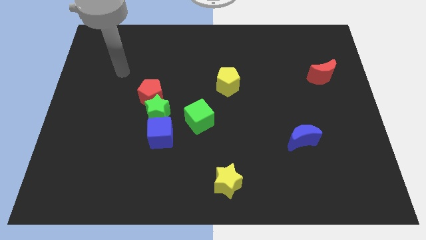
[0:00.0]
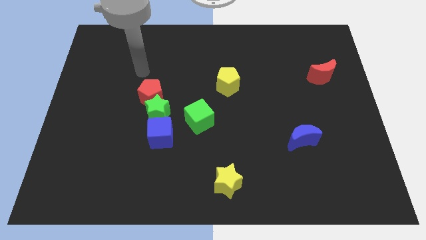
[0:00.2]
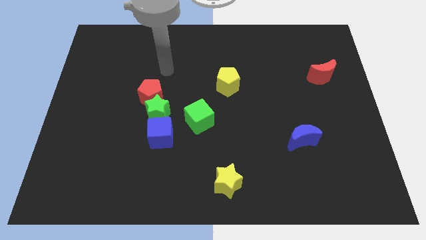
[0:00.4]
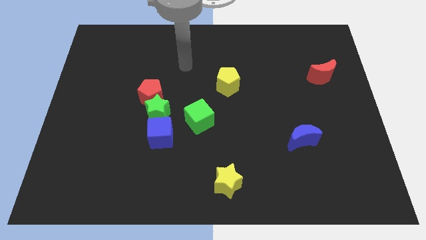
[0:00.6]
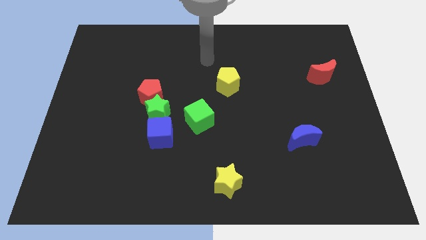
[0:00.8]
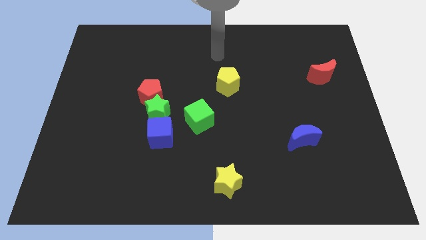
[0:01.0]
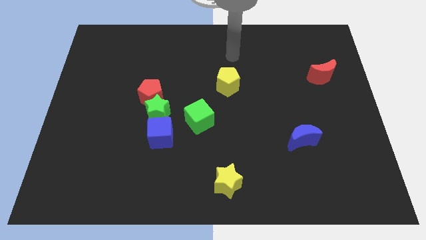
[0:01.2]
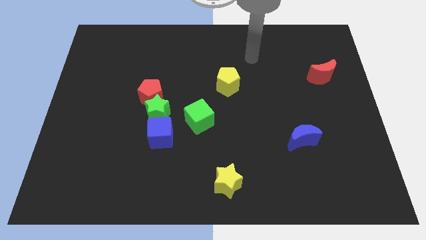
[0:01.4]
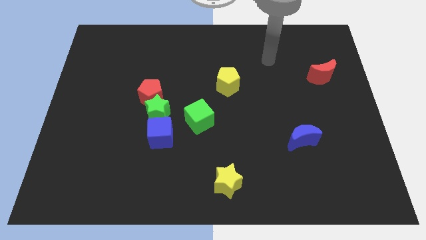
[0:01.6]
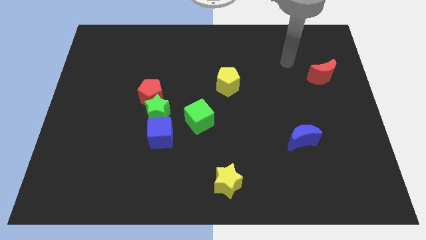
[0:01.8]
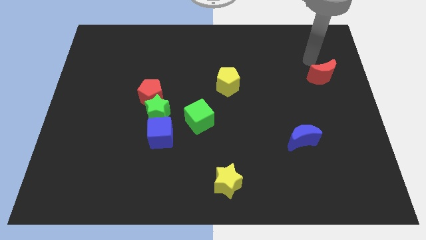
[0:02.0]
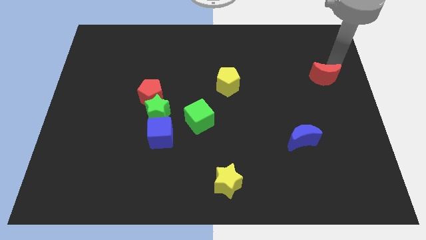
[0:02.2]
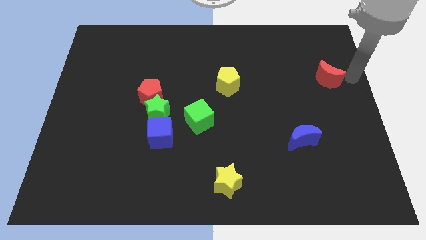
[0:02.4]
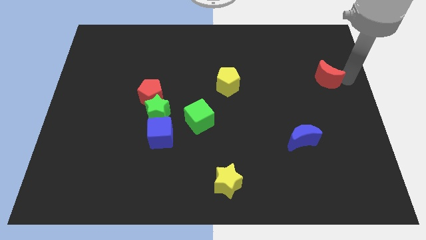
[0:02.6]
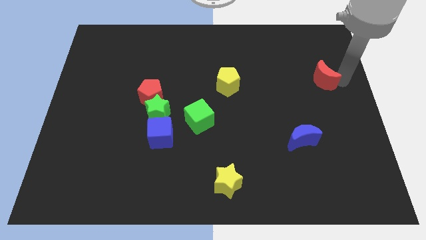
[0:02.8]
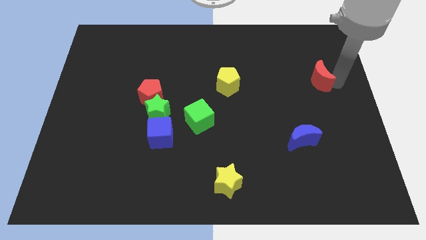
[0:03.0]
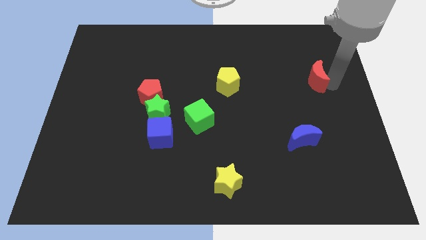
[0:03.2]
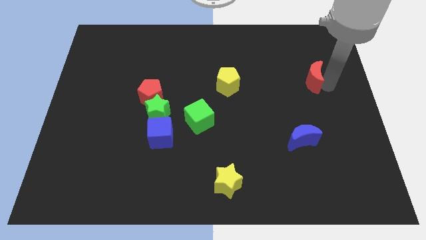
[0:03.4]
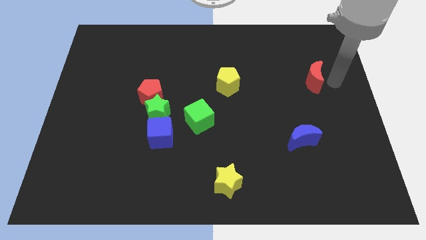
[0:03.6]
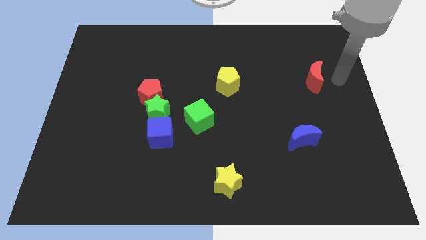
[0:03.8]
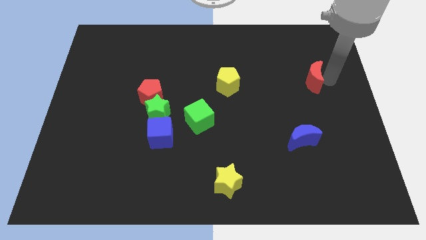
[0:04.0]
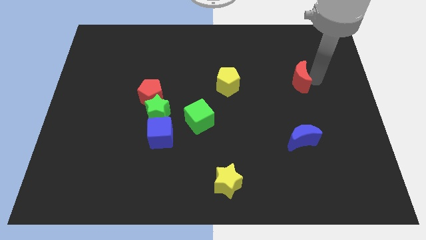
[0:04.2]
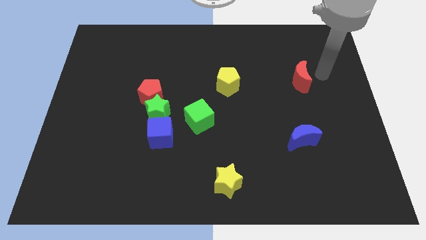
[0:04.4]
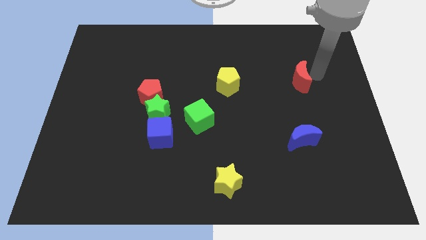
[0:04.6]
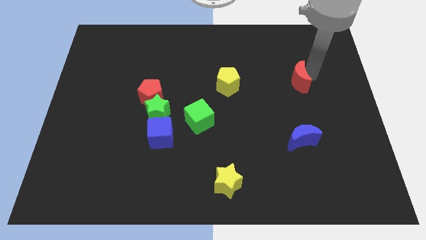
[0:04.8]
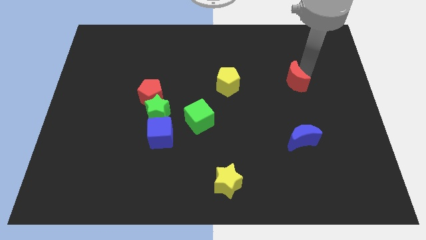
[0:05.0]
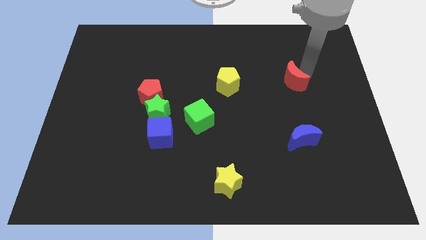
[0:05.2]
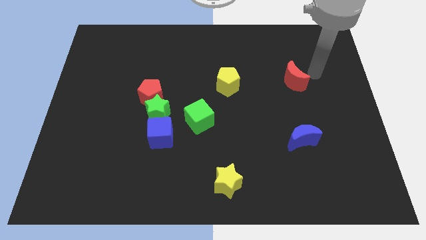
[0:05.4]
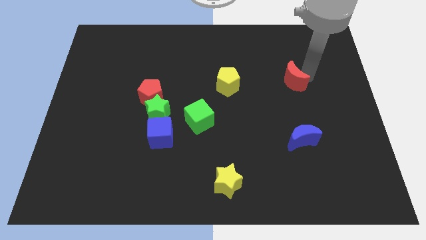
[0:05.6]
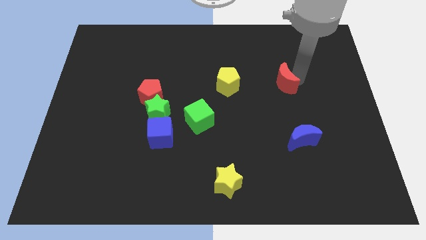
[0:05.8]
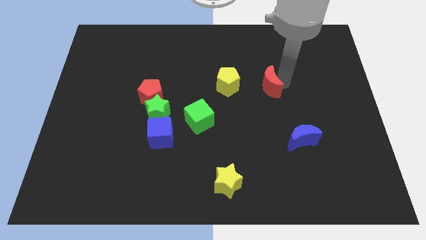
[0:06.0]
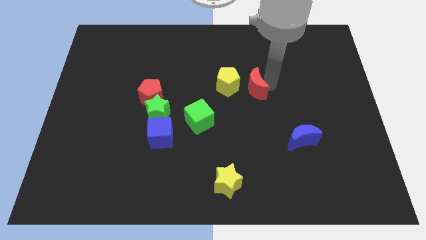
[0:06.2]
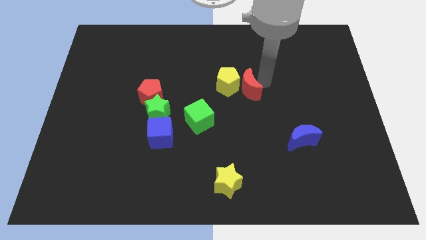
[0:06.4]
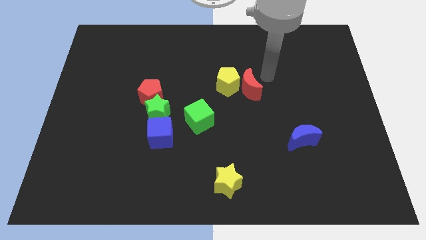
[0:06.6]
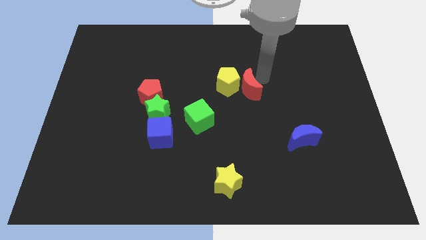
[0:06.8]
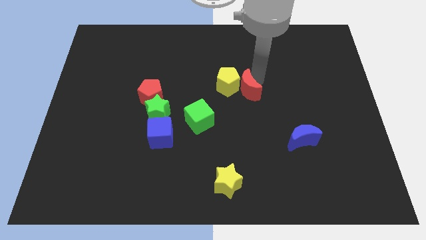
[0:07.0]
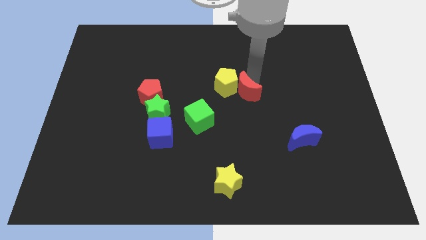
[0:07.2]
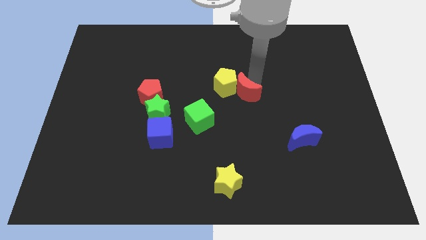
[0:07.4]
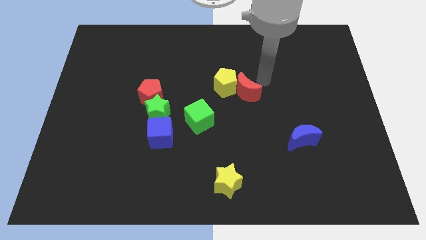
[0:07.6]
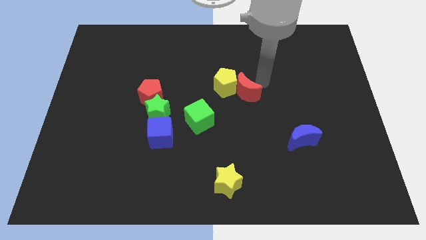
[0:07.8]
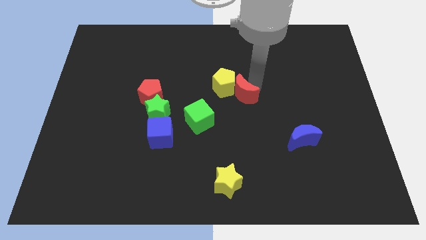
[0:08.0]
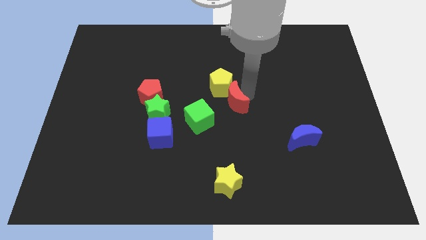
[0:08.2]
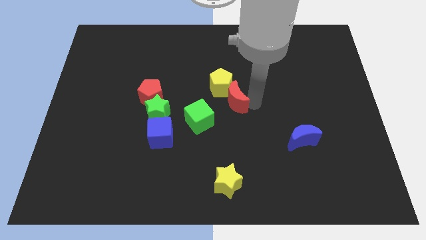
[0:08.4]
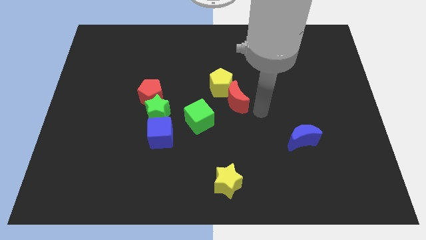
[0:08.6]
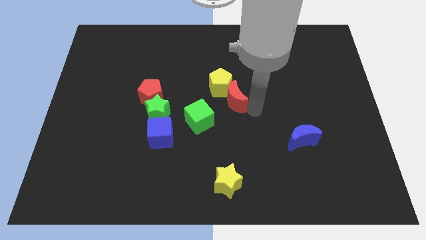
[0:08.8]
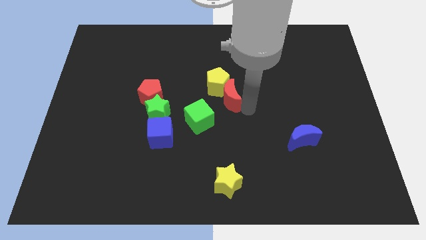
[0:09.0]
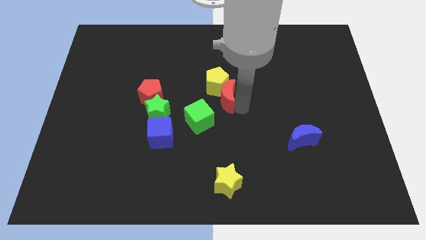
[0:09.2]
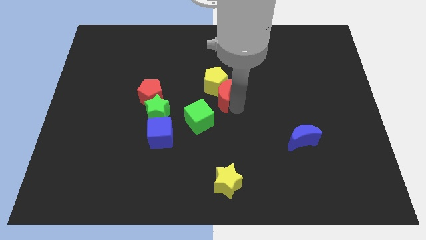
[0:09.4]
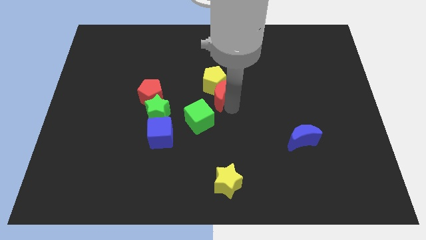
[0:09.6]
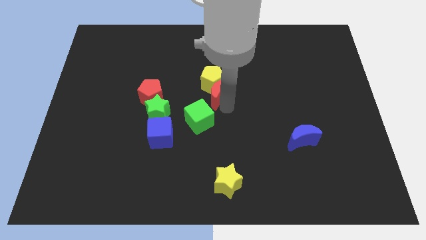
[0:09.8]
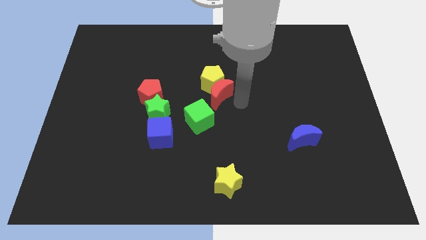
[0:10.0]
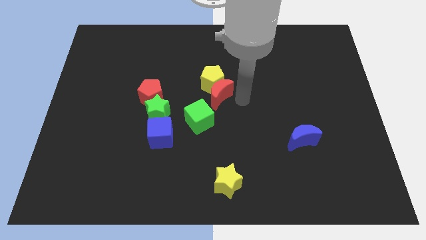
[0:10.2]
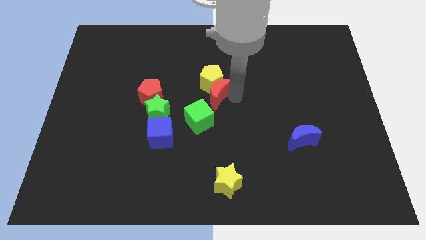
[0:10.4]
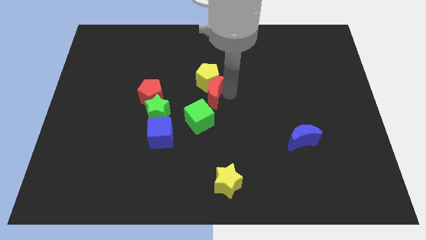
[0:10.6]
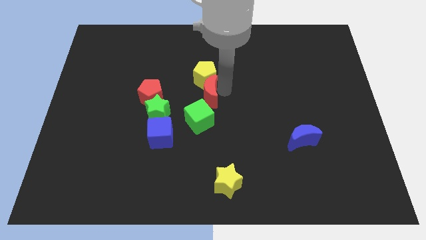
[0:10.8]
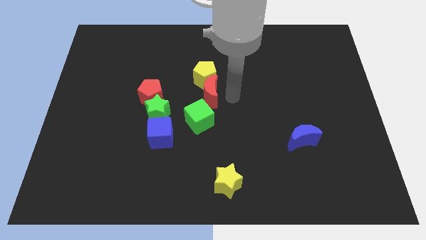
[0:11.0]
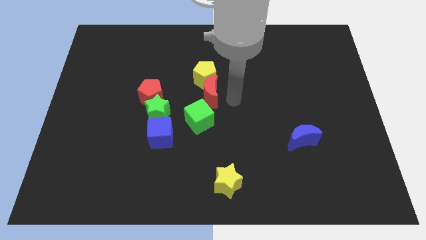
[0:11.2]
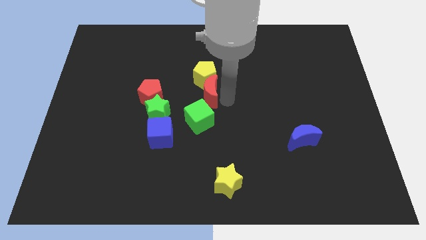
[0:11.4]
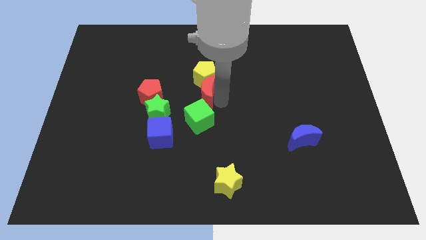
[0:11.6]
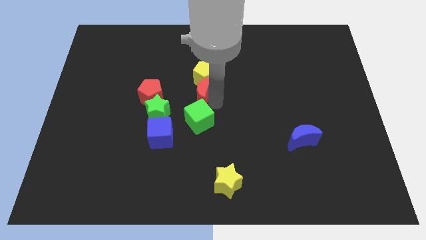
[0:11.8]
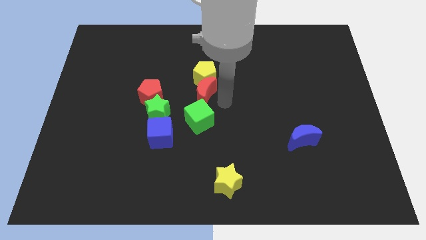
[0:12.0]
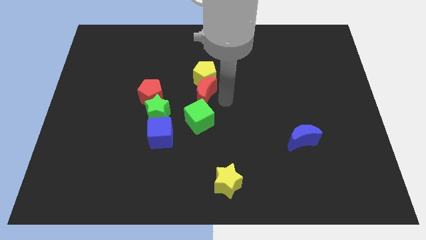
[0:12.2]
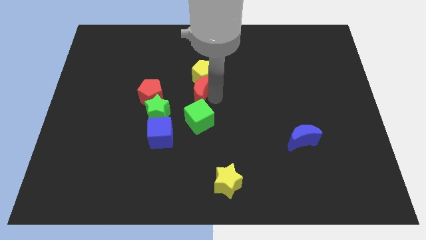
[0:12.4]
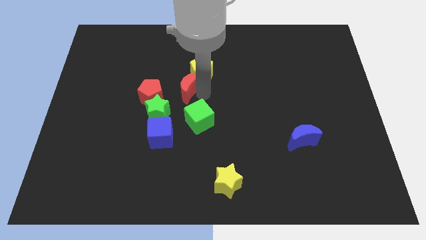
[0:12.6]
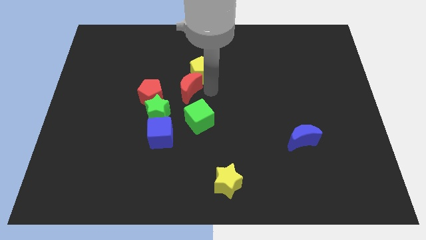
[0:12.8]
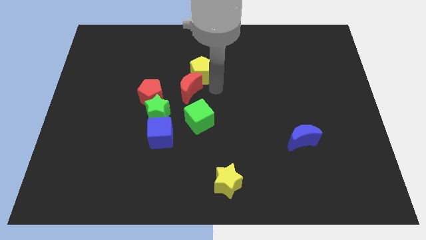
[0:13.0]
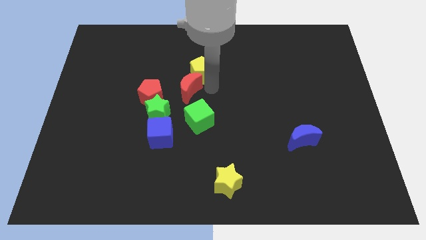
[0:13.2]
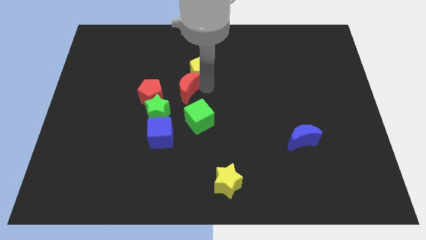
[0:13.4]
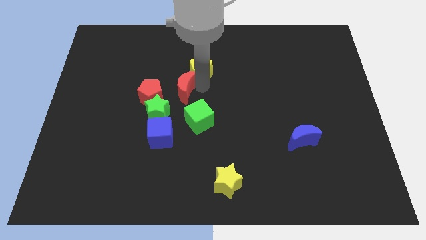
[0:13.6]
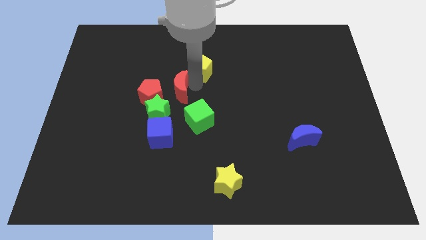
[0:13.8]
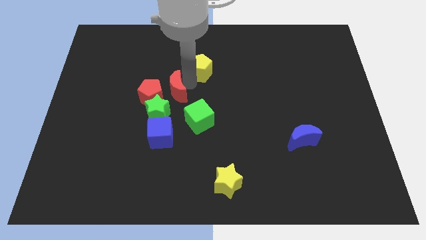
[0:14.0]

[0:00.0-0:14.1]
move the red moon to the red pentagon

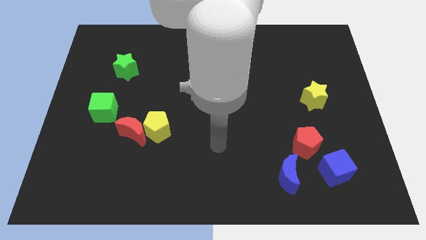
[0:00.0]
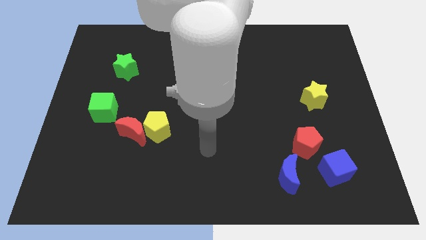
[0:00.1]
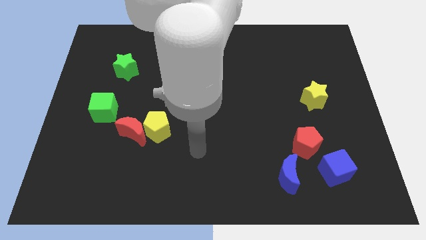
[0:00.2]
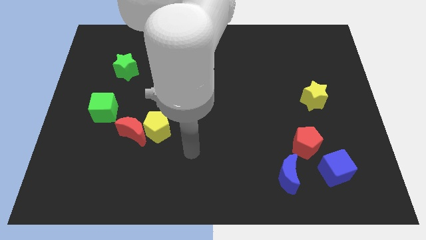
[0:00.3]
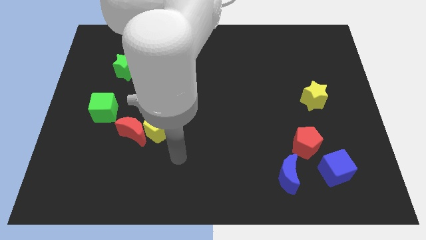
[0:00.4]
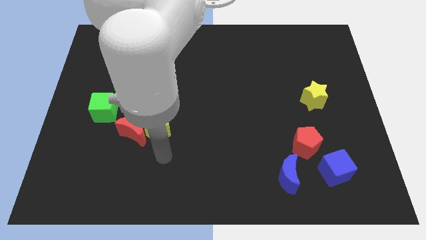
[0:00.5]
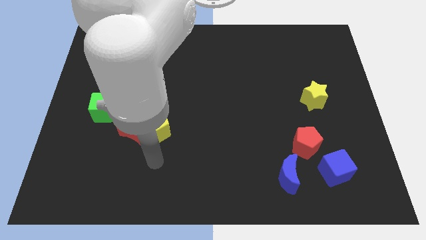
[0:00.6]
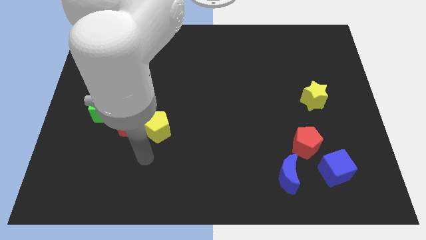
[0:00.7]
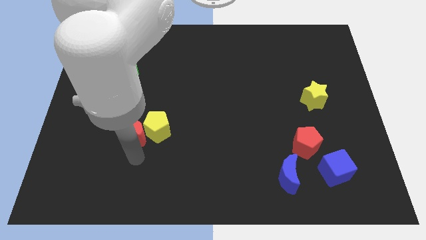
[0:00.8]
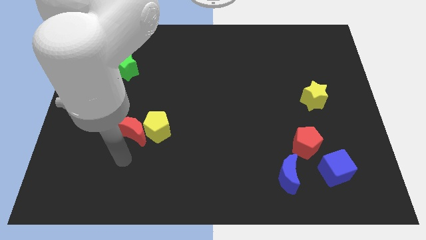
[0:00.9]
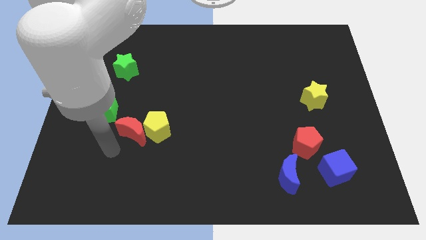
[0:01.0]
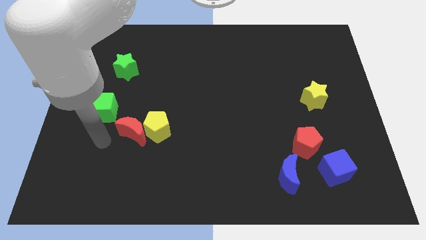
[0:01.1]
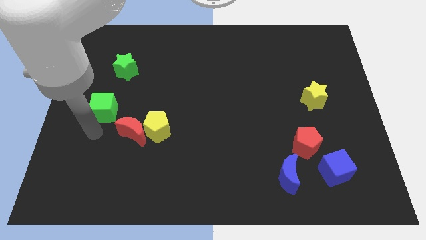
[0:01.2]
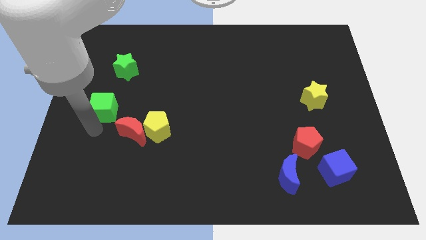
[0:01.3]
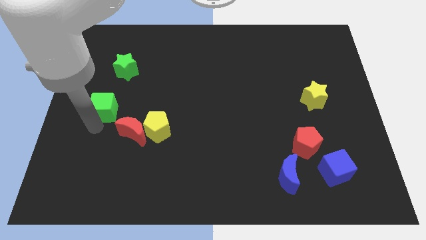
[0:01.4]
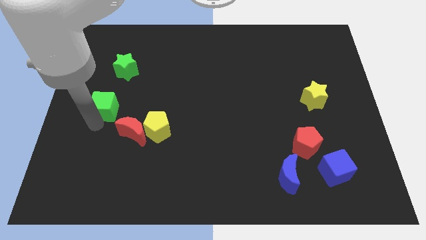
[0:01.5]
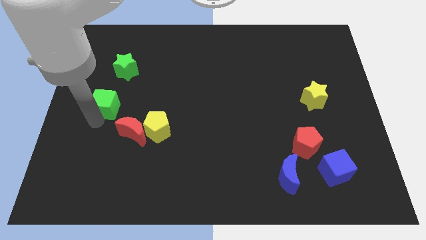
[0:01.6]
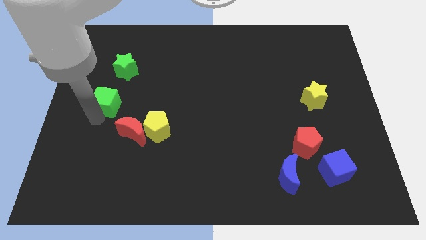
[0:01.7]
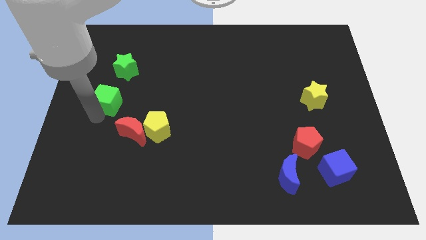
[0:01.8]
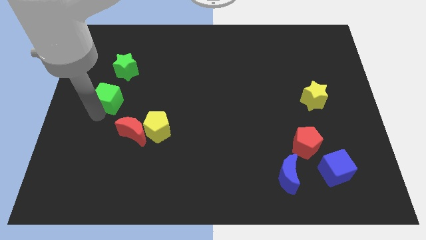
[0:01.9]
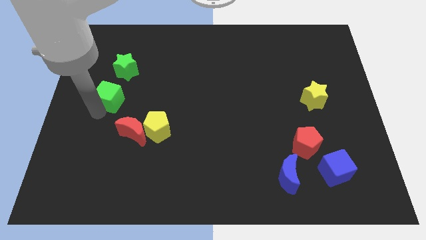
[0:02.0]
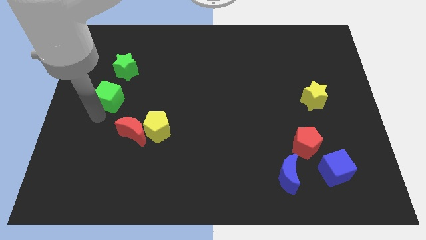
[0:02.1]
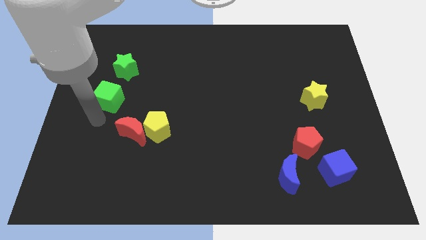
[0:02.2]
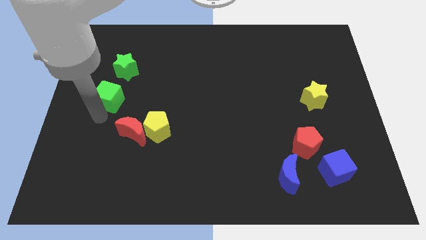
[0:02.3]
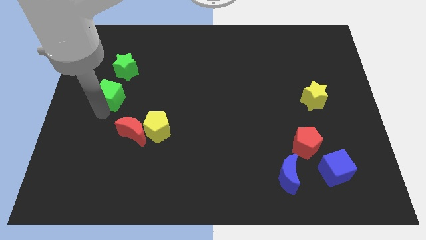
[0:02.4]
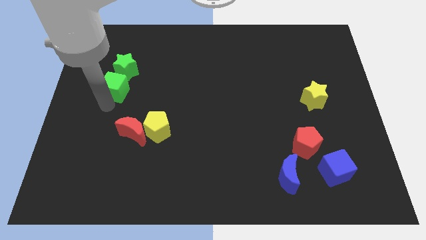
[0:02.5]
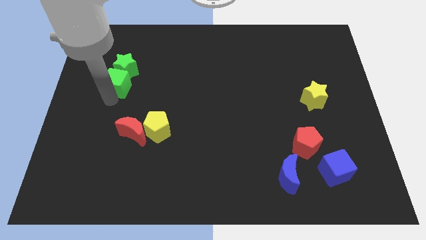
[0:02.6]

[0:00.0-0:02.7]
put the green cube towards the green star
